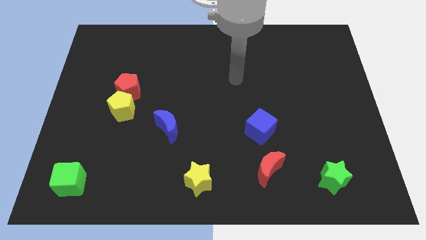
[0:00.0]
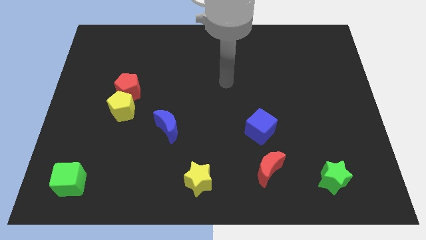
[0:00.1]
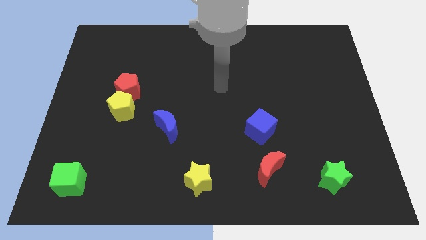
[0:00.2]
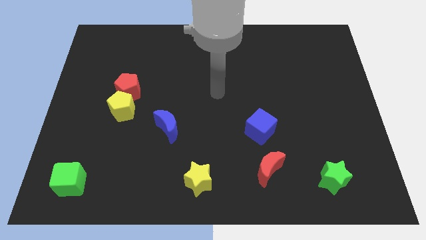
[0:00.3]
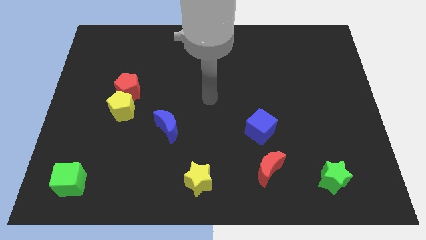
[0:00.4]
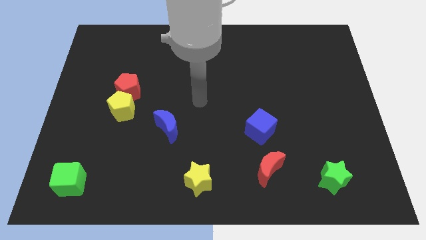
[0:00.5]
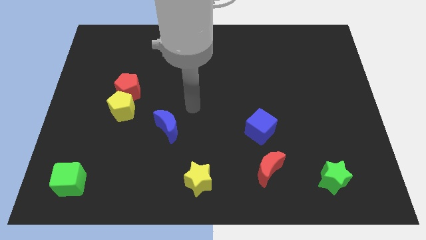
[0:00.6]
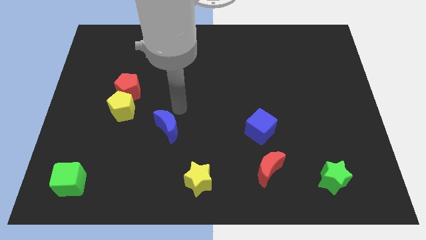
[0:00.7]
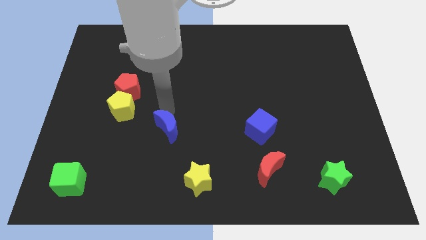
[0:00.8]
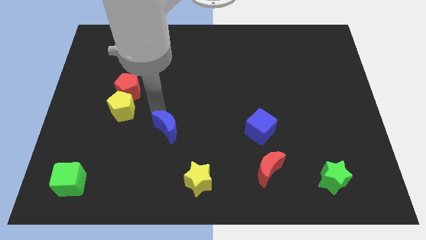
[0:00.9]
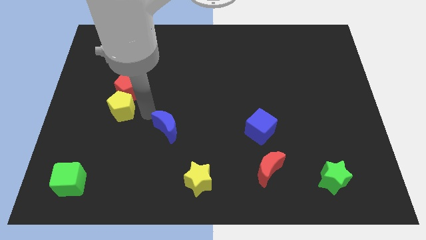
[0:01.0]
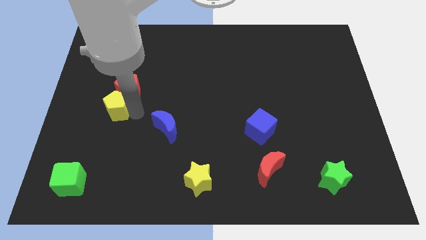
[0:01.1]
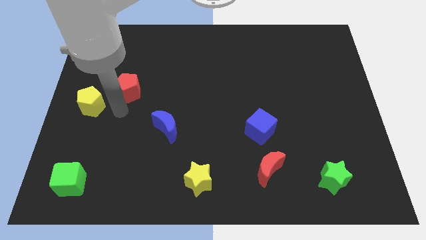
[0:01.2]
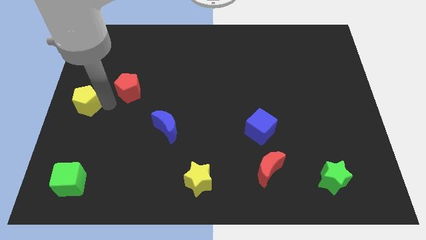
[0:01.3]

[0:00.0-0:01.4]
move the red pentagon away from the yellow pentagon

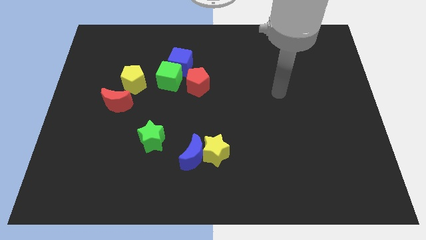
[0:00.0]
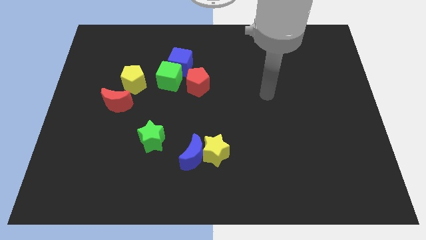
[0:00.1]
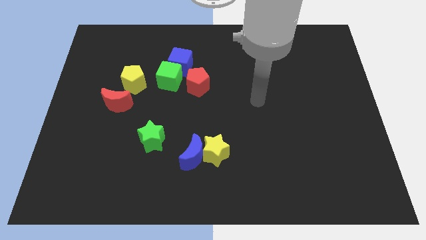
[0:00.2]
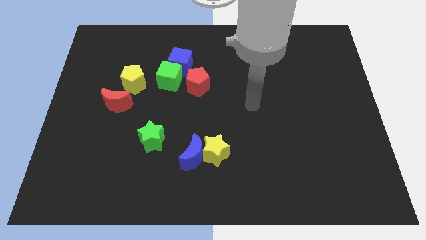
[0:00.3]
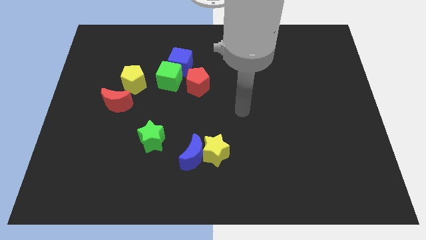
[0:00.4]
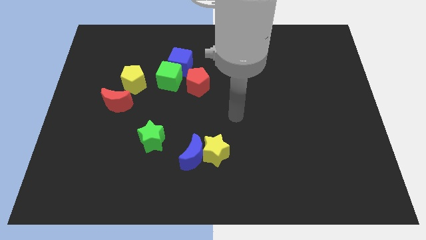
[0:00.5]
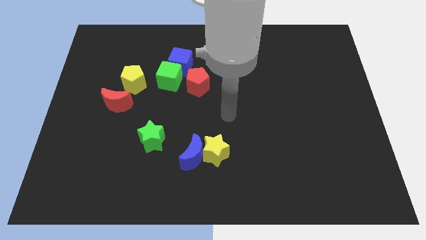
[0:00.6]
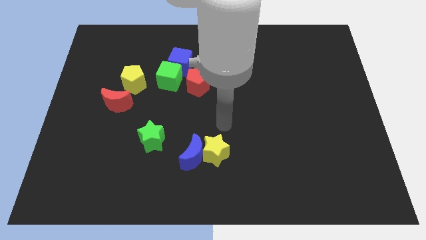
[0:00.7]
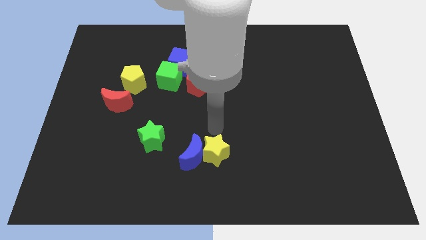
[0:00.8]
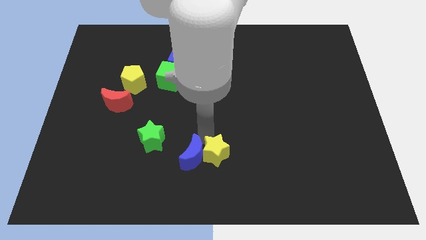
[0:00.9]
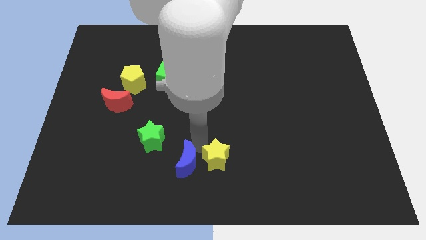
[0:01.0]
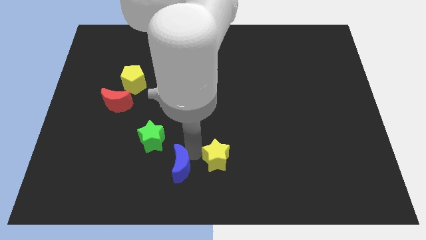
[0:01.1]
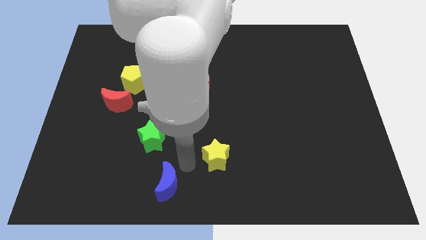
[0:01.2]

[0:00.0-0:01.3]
separate the yellow star from the blue moon

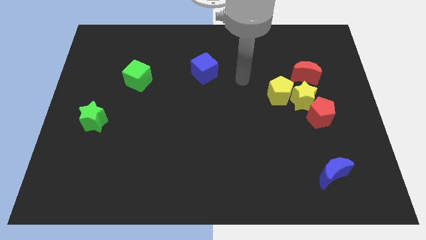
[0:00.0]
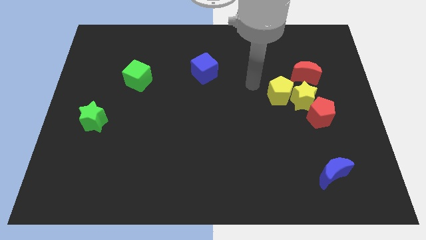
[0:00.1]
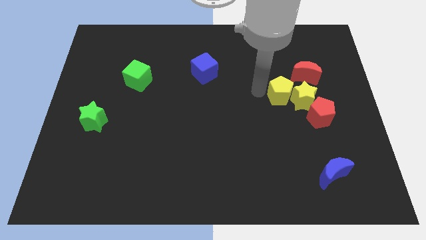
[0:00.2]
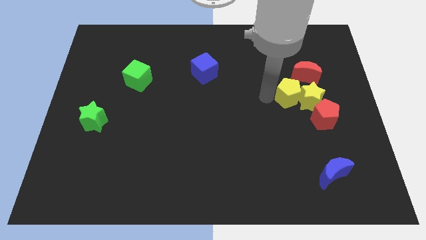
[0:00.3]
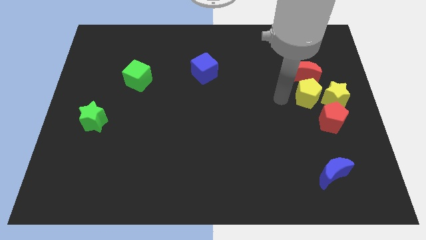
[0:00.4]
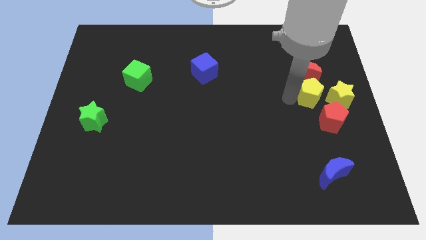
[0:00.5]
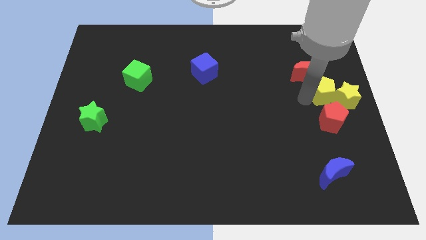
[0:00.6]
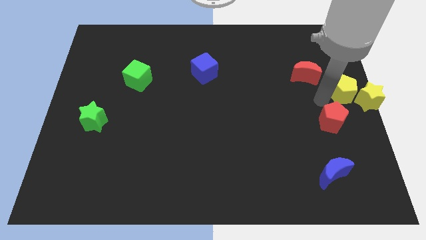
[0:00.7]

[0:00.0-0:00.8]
pull the red pentagon apart from the yellow star

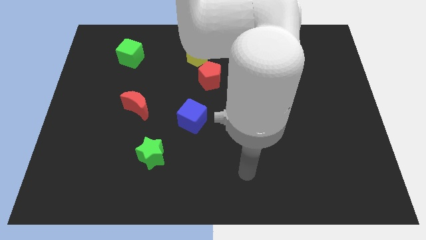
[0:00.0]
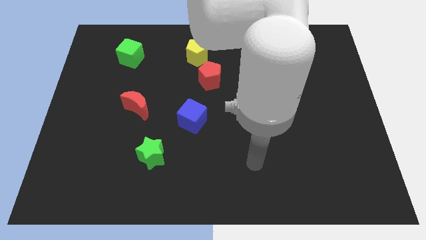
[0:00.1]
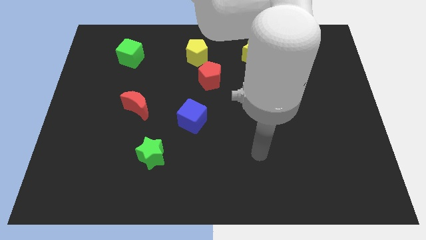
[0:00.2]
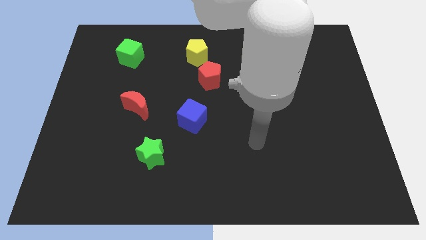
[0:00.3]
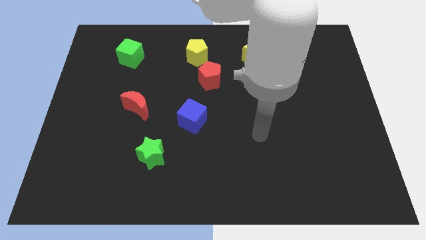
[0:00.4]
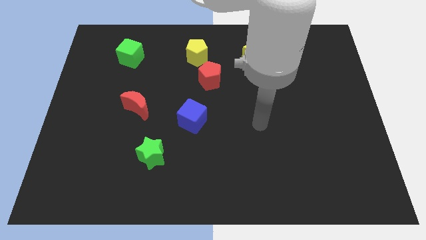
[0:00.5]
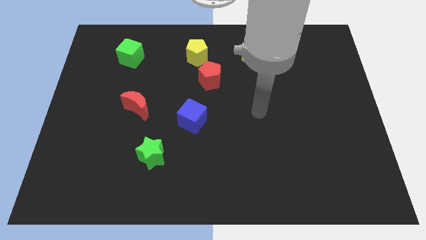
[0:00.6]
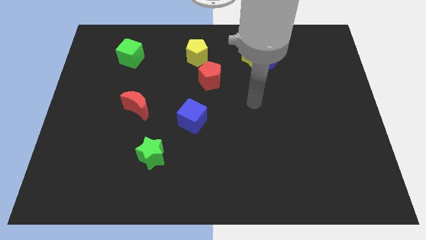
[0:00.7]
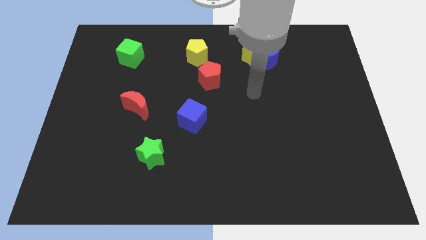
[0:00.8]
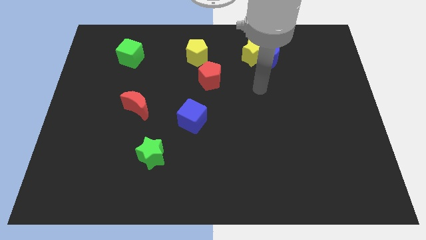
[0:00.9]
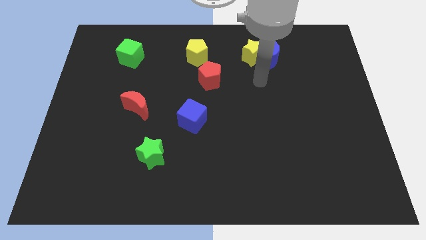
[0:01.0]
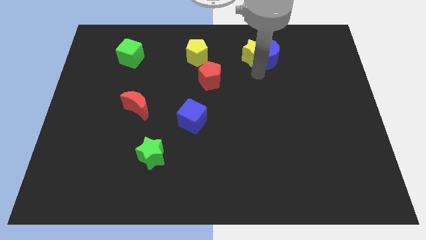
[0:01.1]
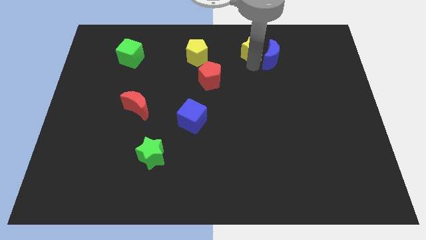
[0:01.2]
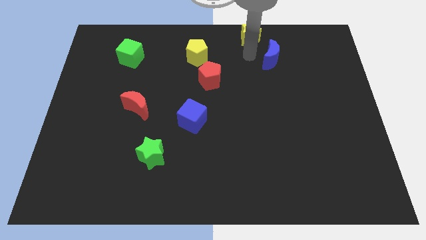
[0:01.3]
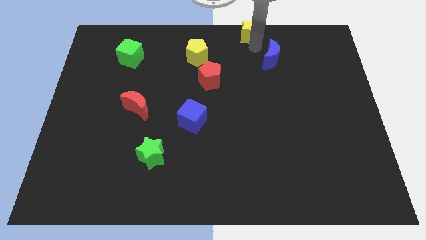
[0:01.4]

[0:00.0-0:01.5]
separate the blue moon from the yellow star

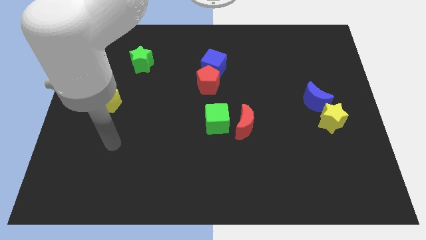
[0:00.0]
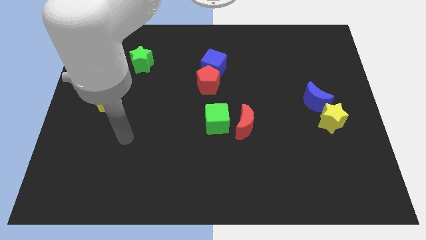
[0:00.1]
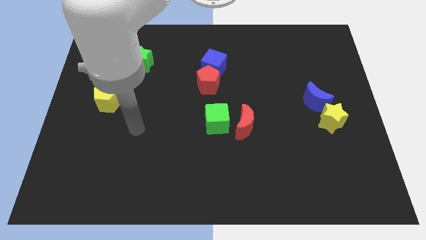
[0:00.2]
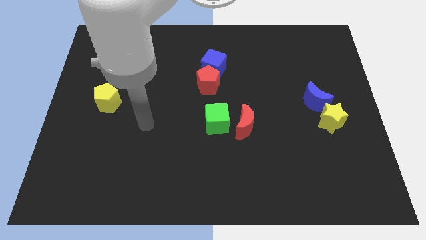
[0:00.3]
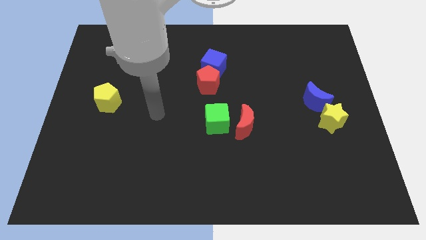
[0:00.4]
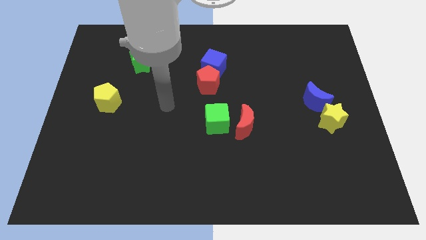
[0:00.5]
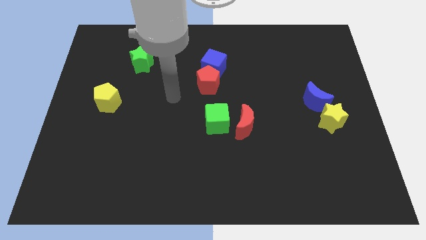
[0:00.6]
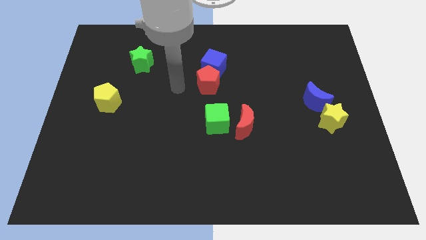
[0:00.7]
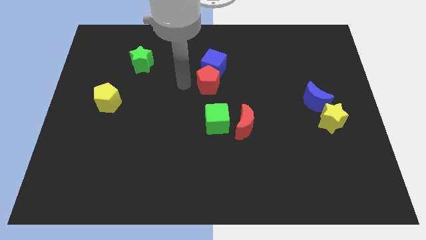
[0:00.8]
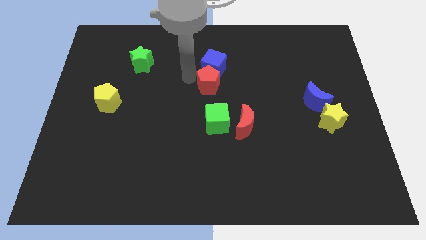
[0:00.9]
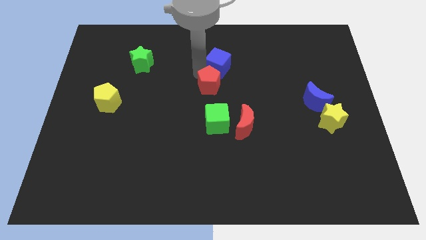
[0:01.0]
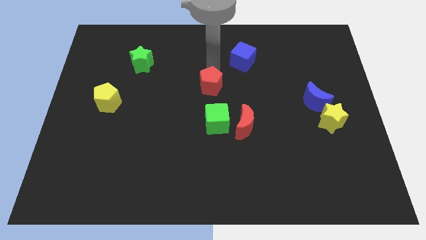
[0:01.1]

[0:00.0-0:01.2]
move the red pentagon away from the blue cube

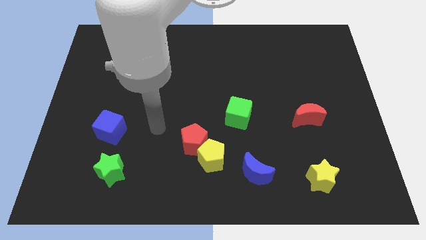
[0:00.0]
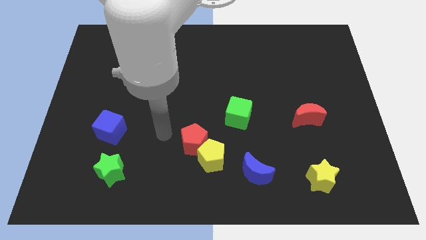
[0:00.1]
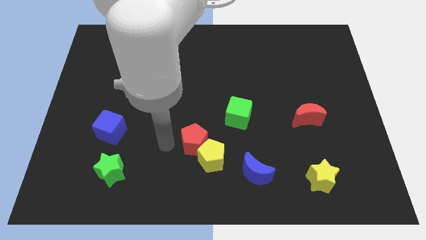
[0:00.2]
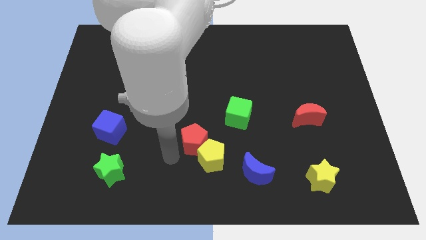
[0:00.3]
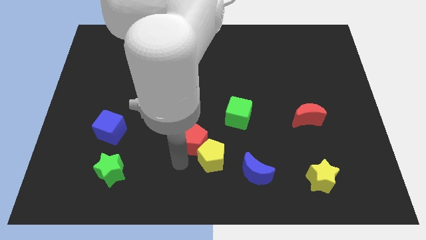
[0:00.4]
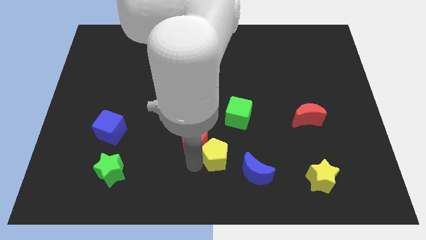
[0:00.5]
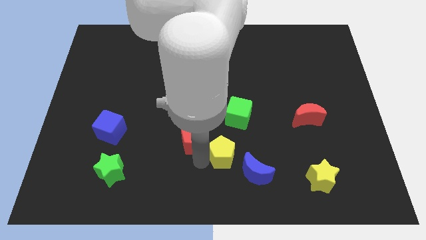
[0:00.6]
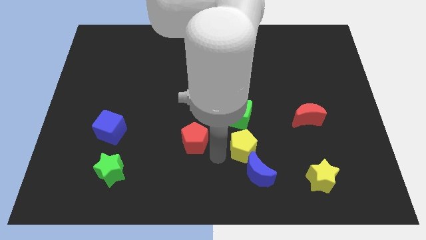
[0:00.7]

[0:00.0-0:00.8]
separate the red pentagon from the yellow pentagon

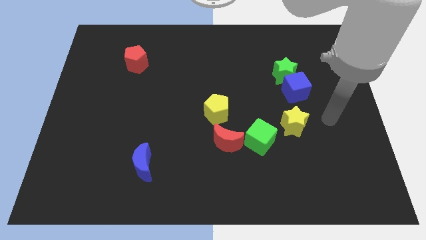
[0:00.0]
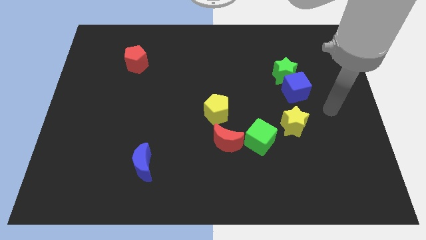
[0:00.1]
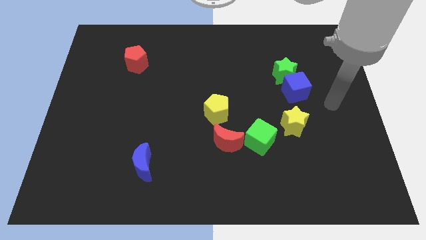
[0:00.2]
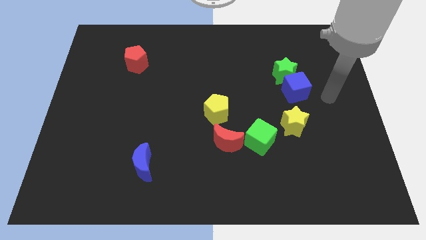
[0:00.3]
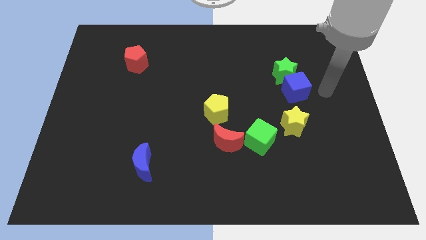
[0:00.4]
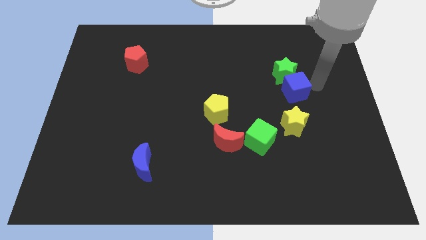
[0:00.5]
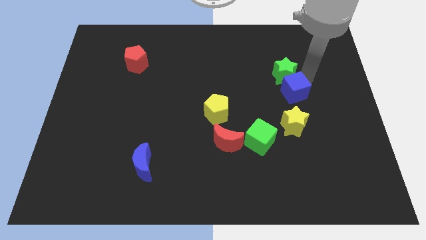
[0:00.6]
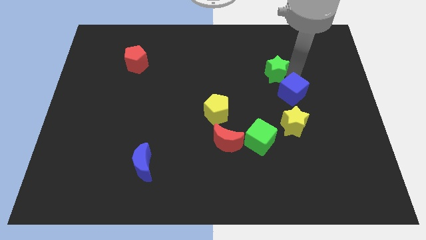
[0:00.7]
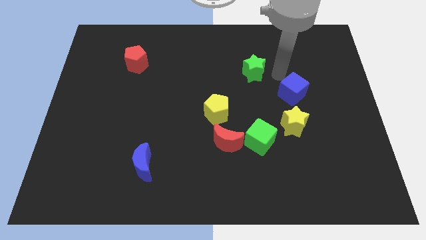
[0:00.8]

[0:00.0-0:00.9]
pull the blue cube apart from the green star

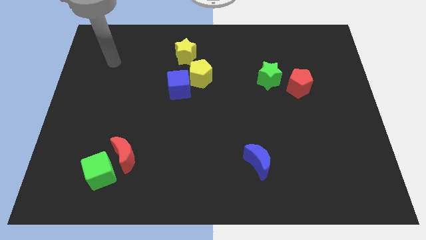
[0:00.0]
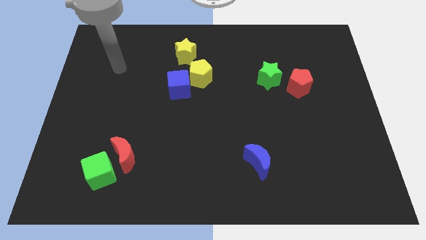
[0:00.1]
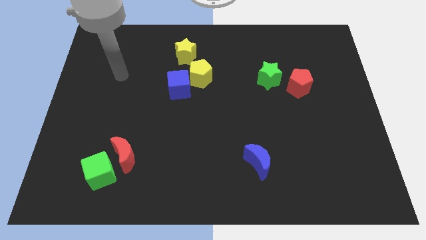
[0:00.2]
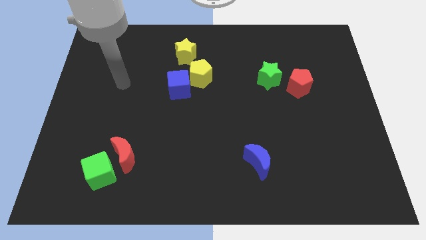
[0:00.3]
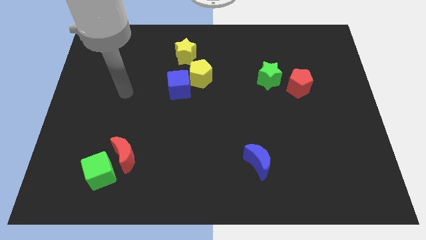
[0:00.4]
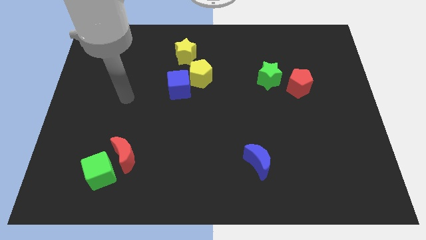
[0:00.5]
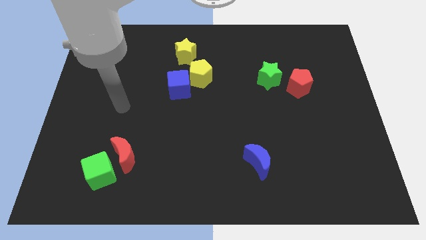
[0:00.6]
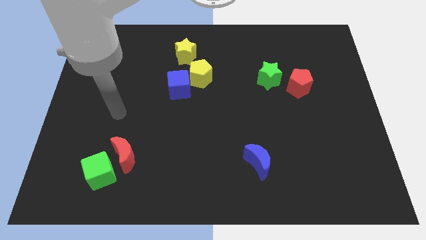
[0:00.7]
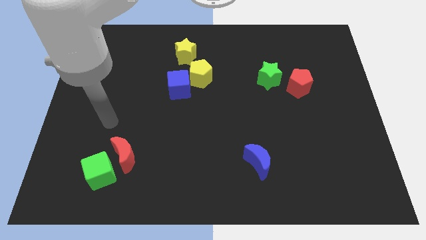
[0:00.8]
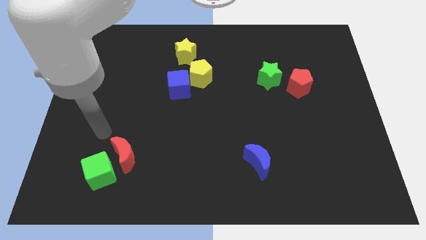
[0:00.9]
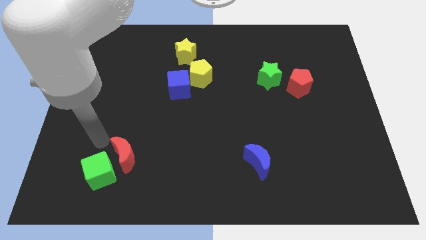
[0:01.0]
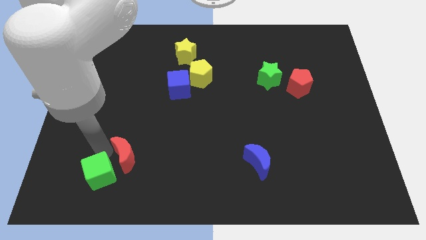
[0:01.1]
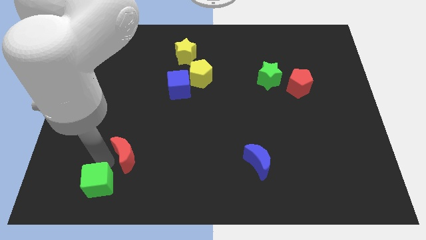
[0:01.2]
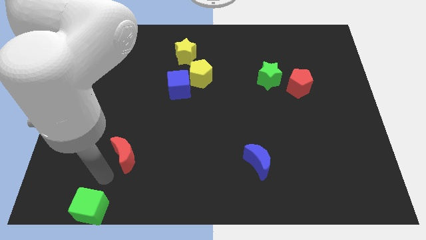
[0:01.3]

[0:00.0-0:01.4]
pull the red moon apart from the green cube
